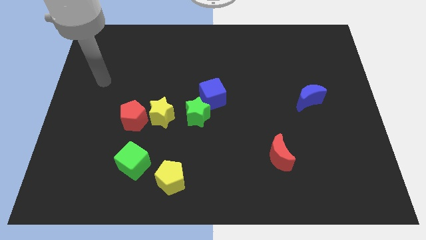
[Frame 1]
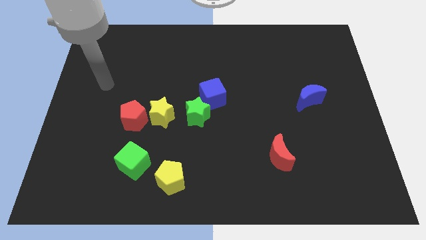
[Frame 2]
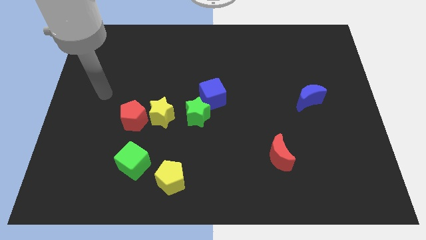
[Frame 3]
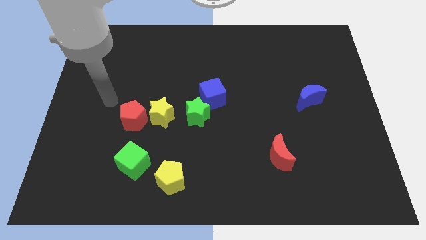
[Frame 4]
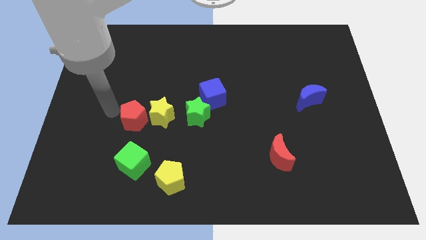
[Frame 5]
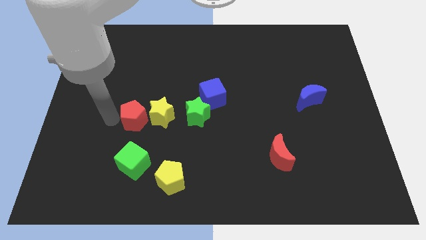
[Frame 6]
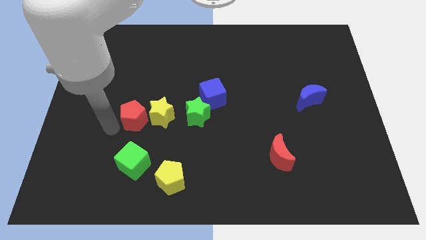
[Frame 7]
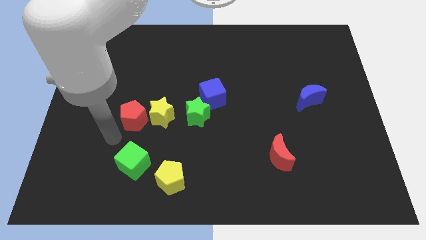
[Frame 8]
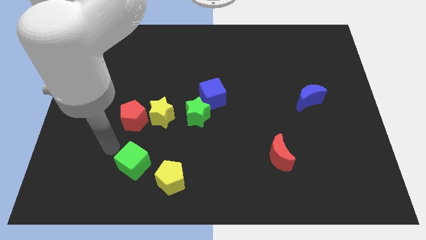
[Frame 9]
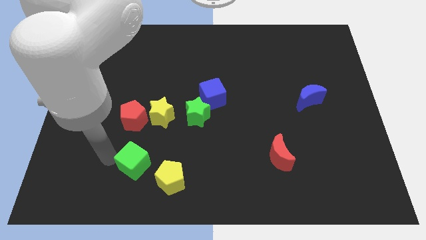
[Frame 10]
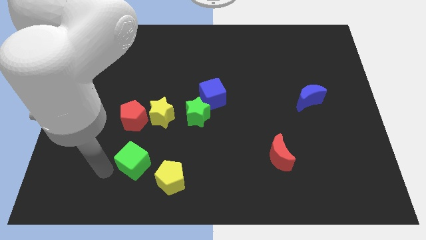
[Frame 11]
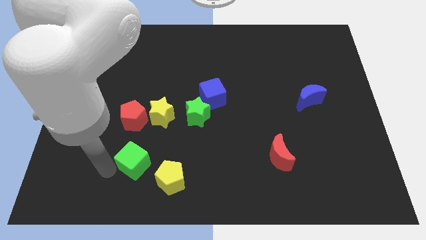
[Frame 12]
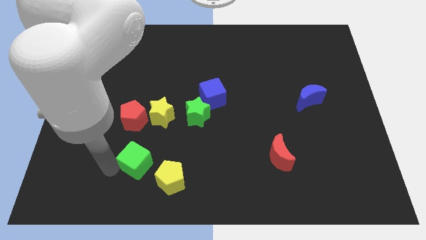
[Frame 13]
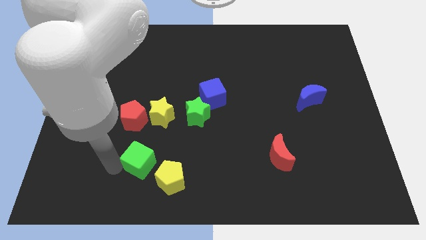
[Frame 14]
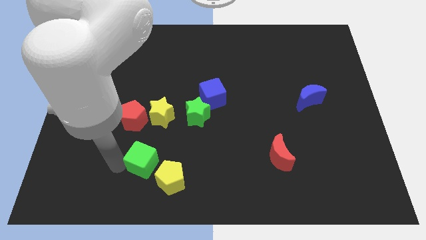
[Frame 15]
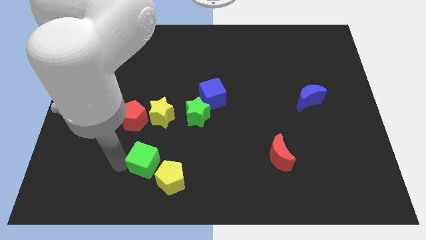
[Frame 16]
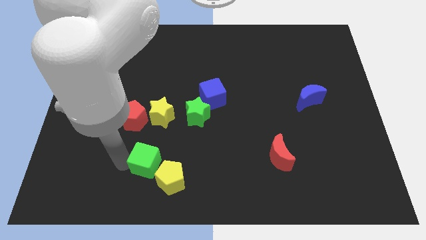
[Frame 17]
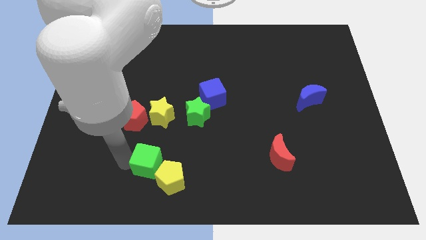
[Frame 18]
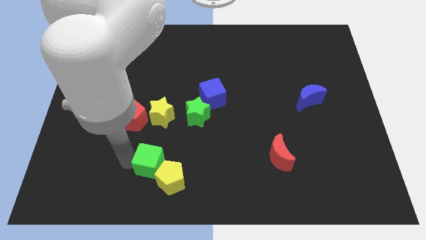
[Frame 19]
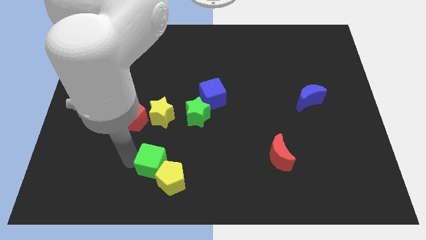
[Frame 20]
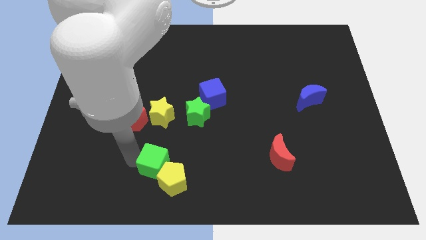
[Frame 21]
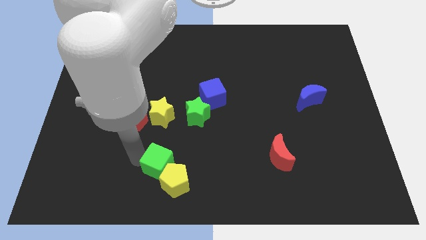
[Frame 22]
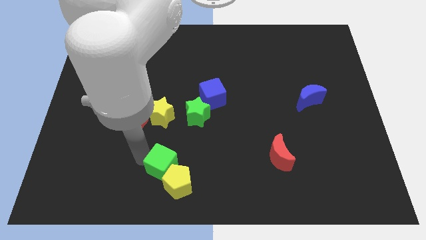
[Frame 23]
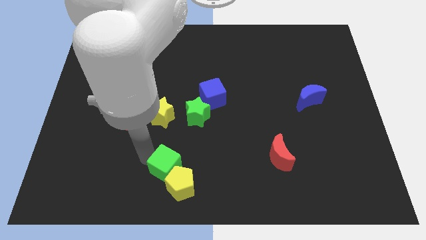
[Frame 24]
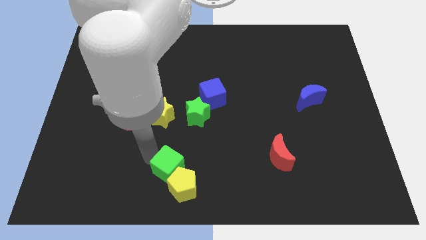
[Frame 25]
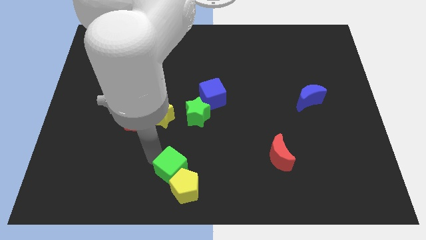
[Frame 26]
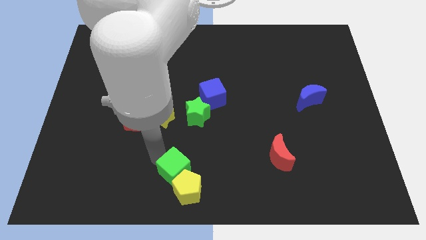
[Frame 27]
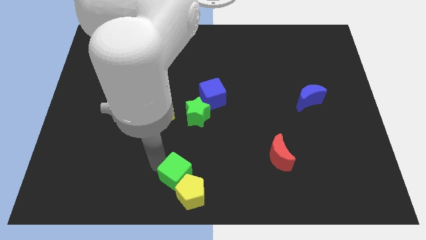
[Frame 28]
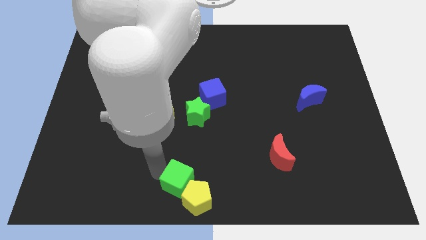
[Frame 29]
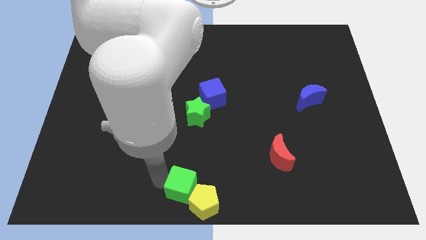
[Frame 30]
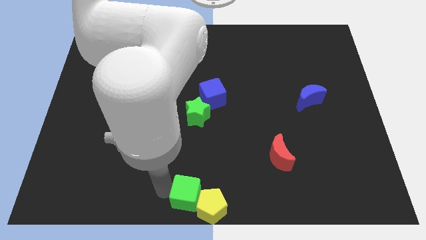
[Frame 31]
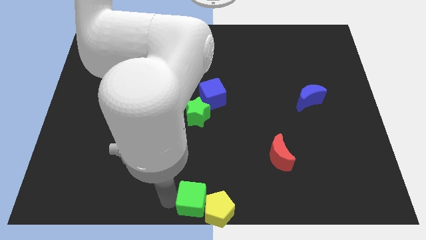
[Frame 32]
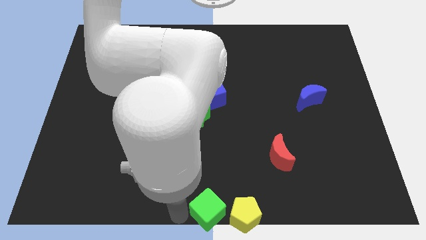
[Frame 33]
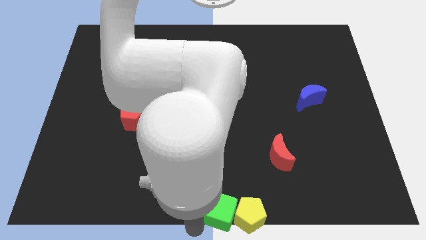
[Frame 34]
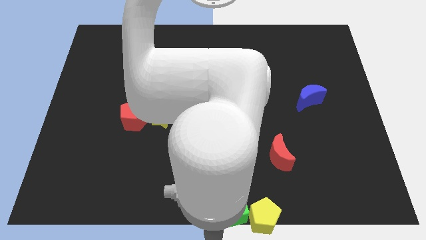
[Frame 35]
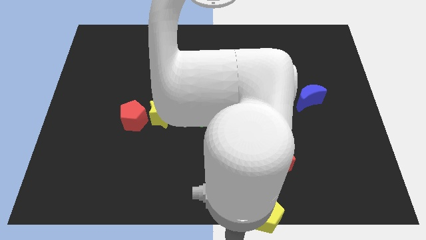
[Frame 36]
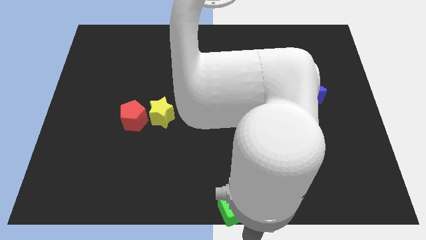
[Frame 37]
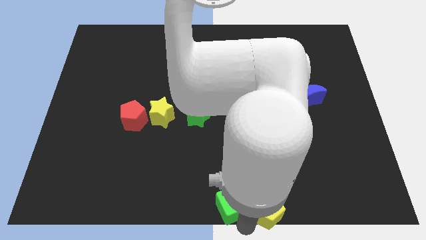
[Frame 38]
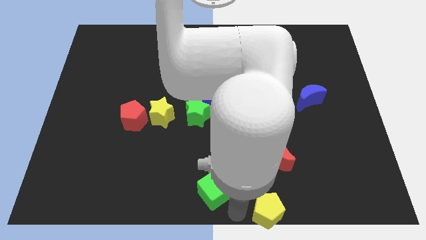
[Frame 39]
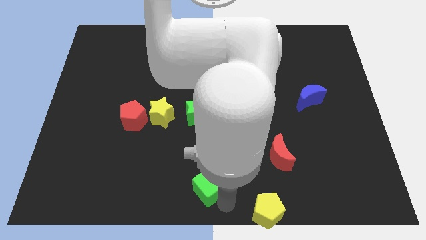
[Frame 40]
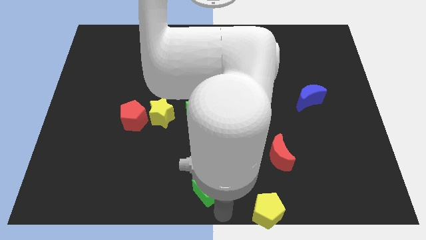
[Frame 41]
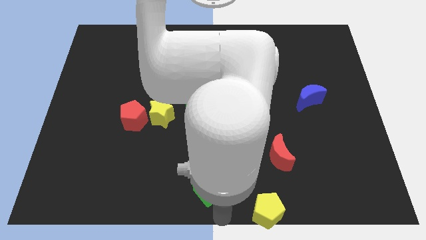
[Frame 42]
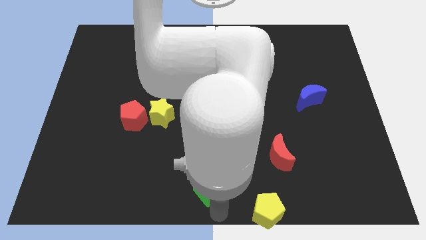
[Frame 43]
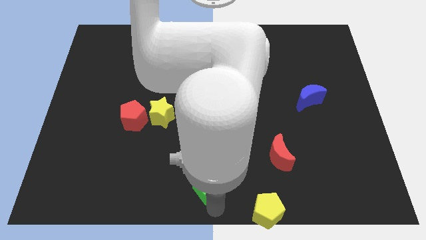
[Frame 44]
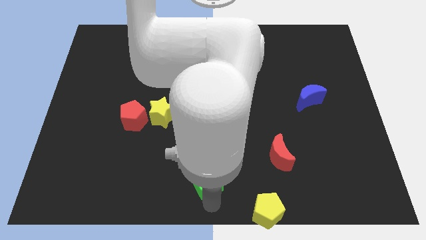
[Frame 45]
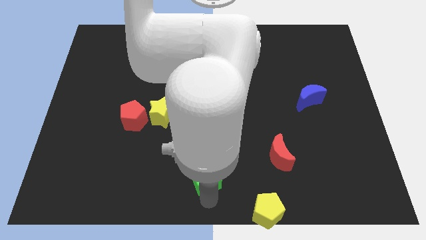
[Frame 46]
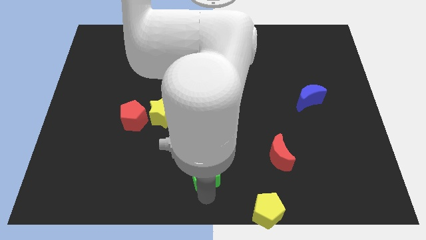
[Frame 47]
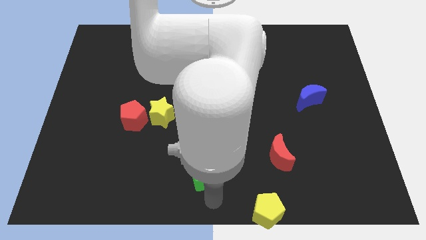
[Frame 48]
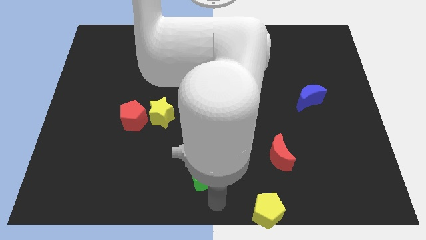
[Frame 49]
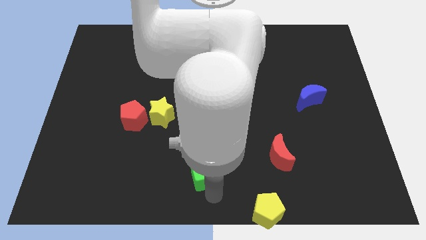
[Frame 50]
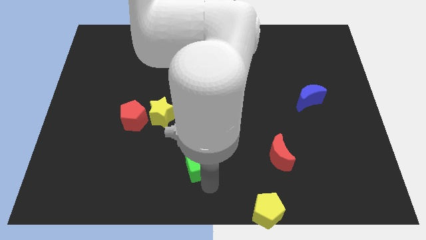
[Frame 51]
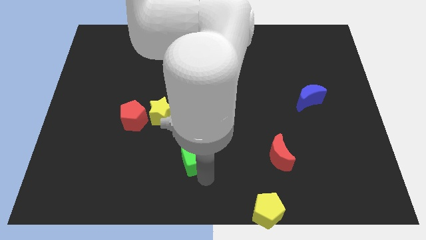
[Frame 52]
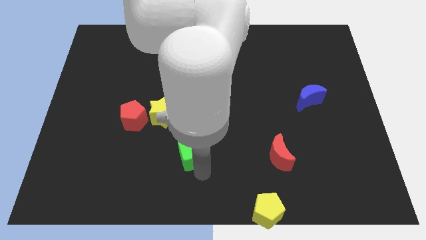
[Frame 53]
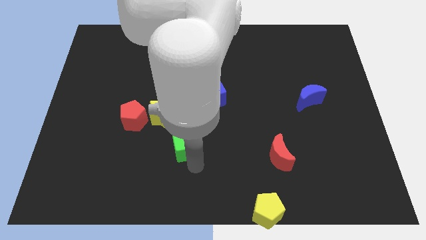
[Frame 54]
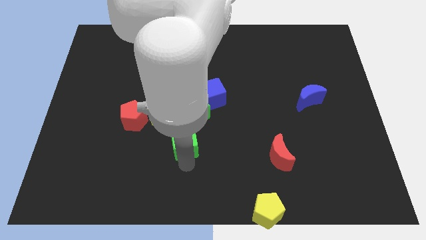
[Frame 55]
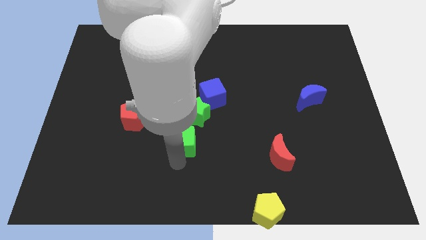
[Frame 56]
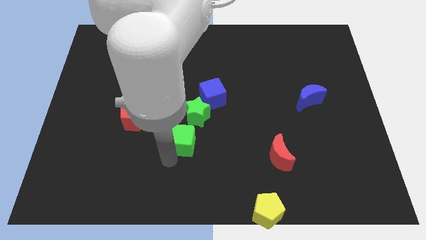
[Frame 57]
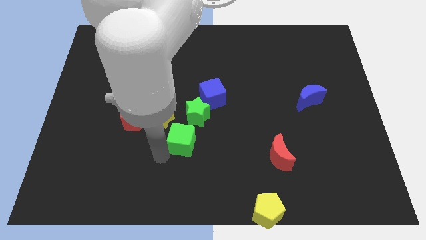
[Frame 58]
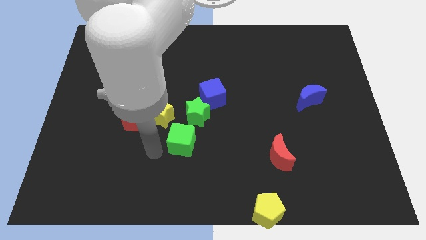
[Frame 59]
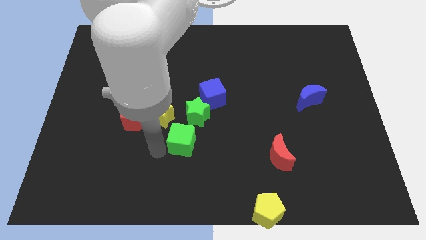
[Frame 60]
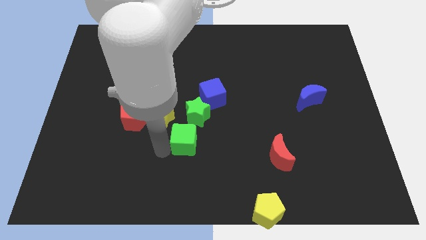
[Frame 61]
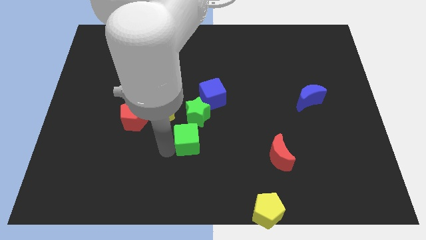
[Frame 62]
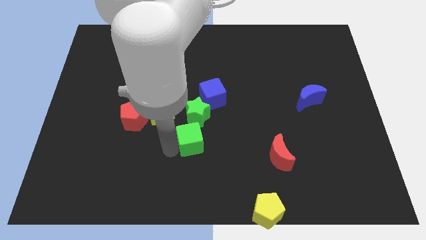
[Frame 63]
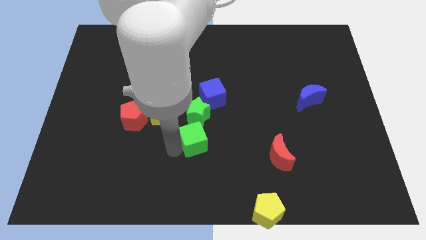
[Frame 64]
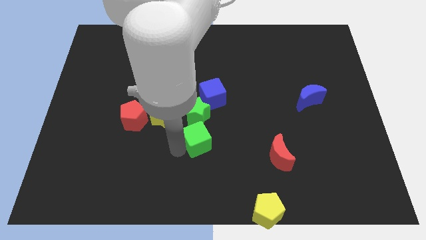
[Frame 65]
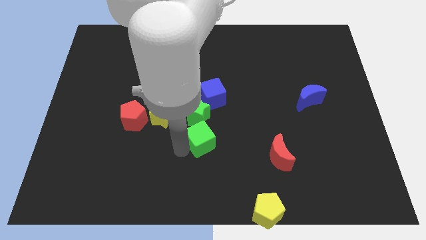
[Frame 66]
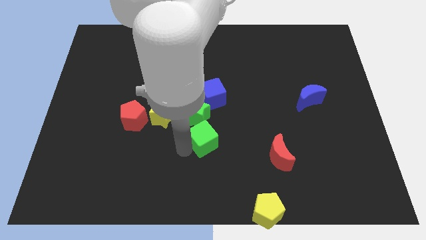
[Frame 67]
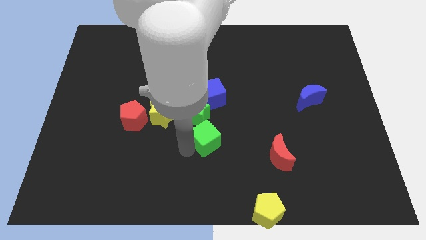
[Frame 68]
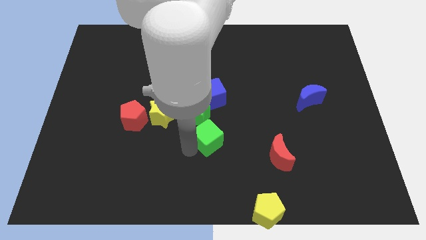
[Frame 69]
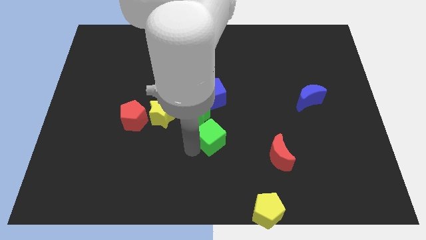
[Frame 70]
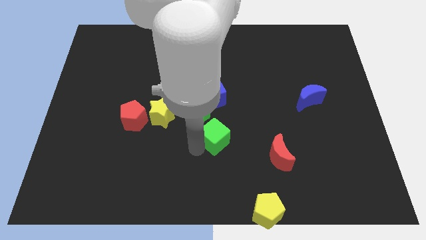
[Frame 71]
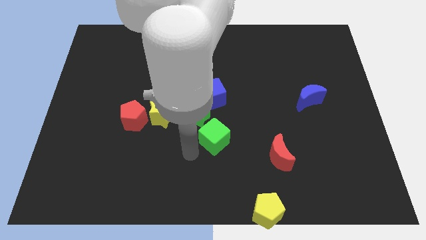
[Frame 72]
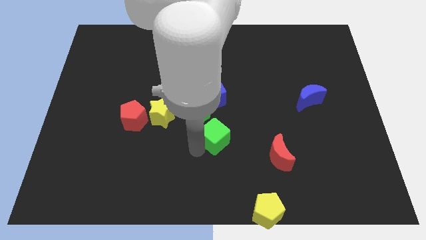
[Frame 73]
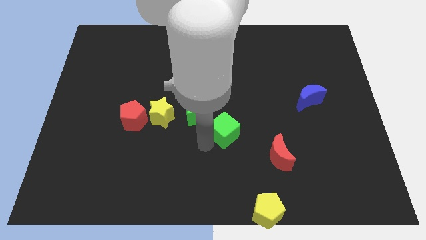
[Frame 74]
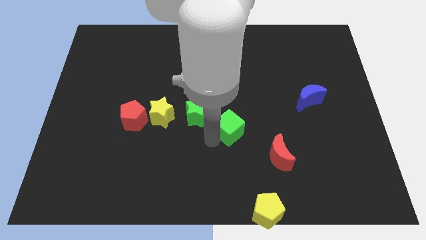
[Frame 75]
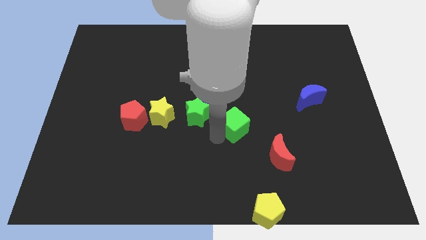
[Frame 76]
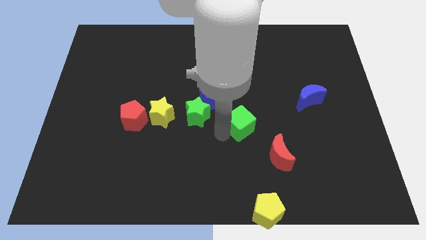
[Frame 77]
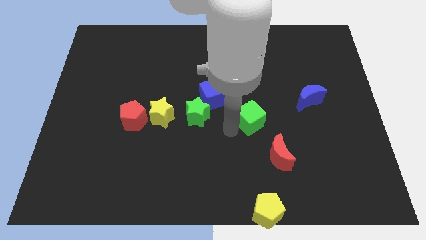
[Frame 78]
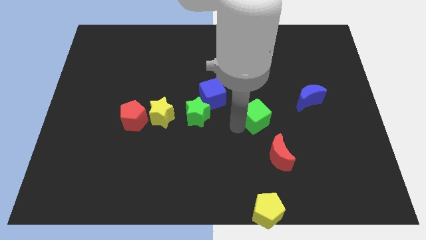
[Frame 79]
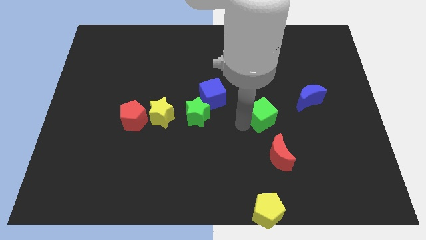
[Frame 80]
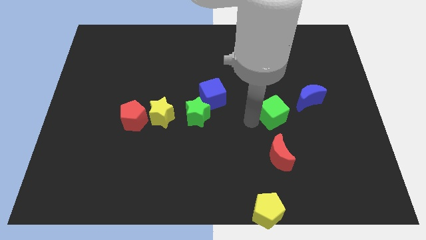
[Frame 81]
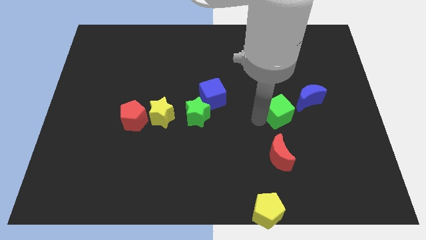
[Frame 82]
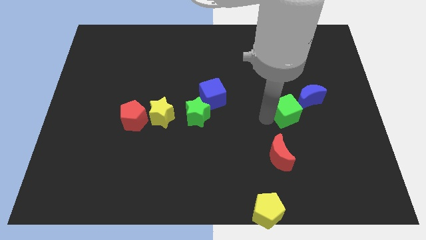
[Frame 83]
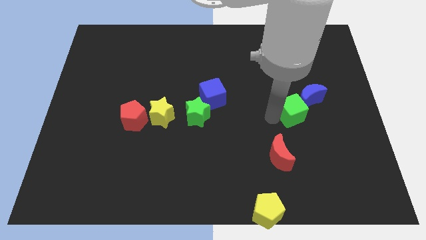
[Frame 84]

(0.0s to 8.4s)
put the green cube close to the blue moon
